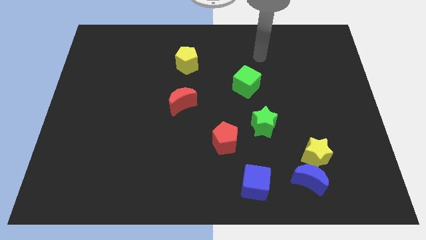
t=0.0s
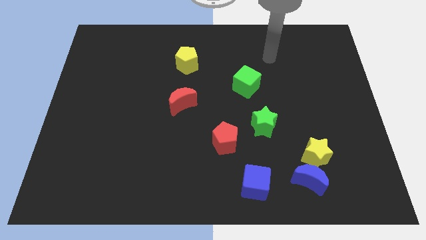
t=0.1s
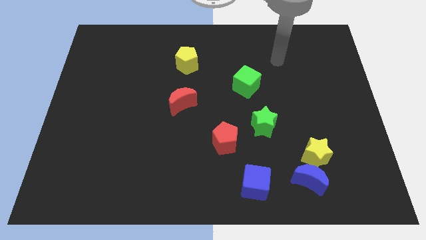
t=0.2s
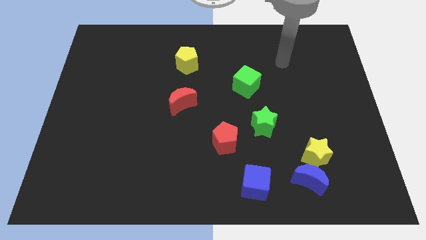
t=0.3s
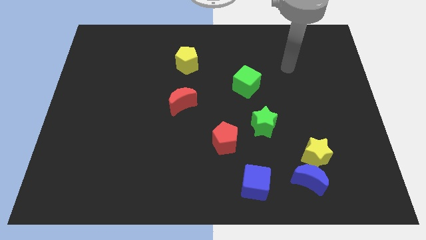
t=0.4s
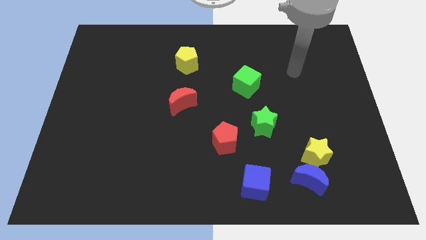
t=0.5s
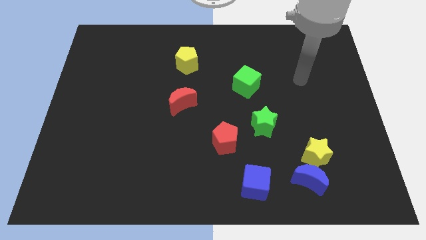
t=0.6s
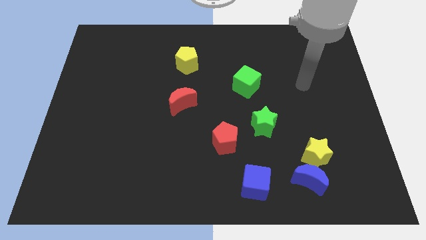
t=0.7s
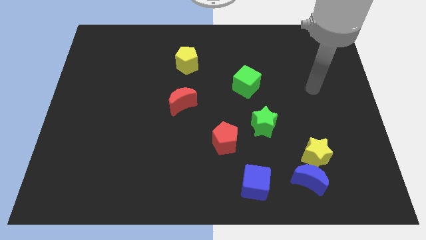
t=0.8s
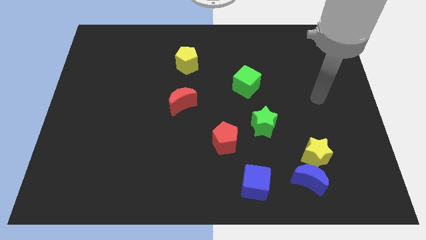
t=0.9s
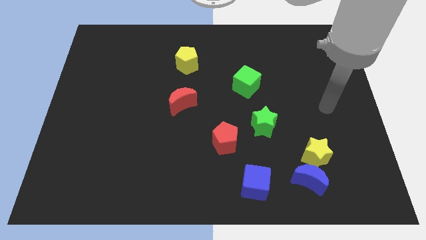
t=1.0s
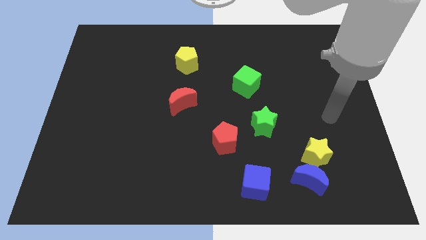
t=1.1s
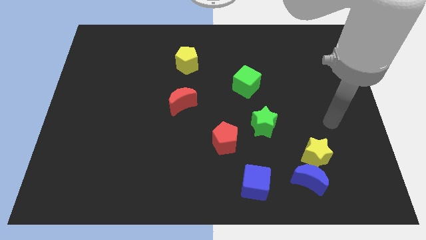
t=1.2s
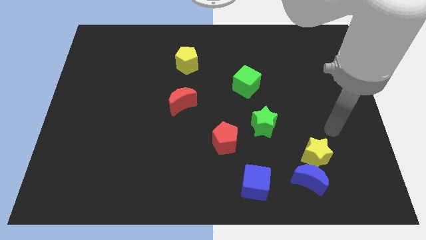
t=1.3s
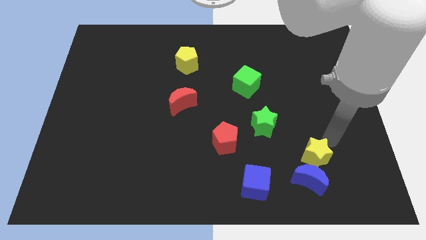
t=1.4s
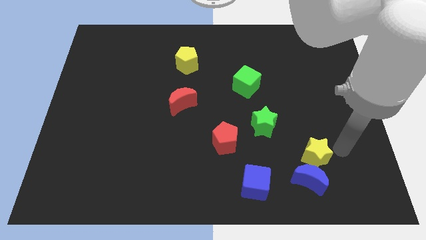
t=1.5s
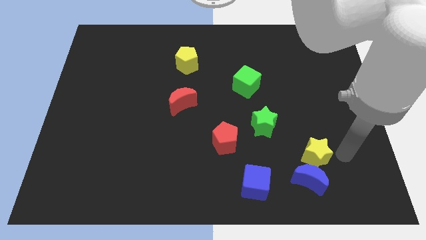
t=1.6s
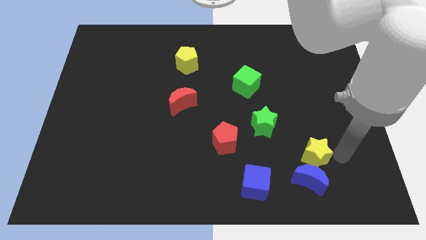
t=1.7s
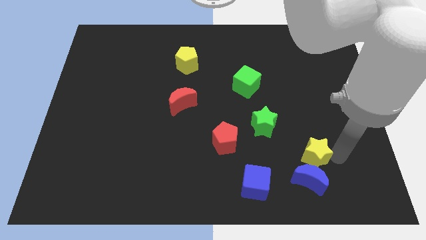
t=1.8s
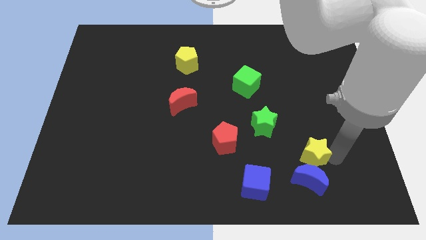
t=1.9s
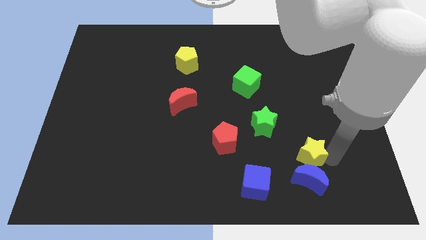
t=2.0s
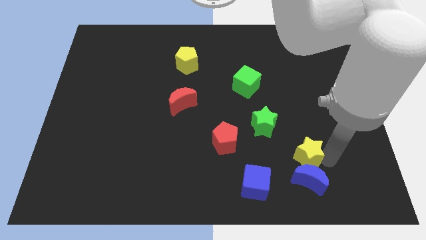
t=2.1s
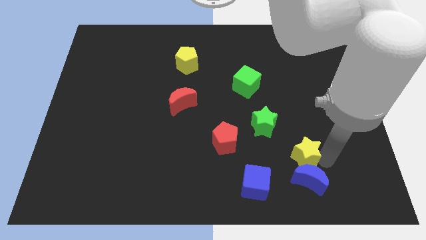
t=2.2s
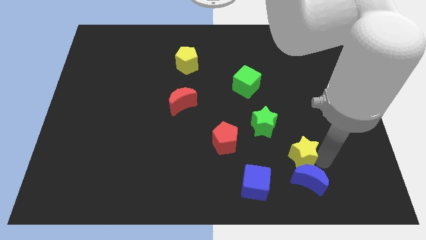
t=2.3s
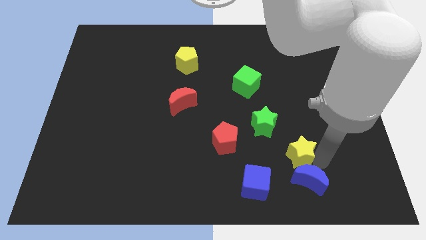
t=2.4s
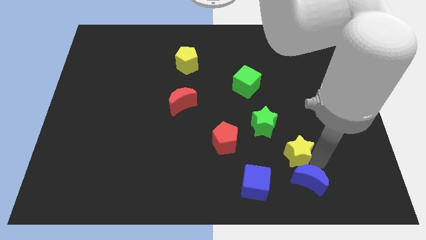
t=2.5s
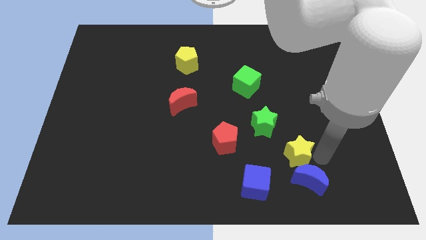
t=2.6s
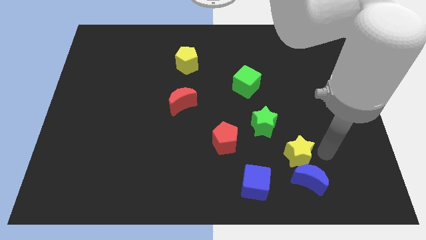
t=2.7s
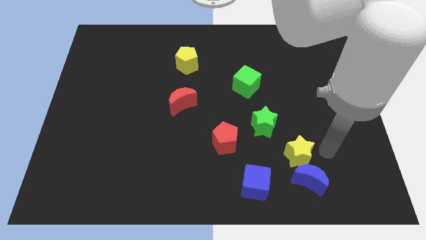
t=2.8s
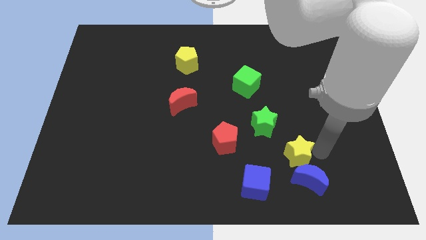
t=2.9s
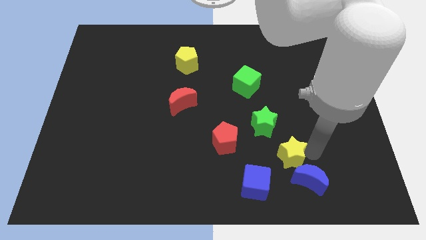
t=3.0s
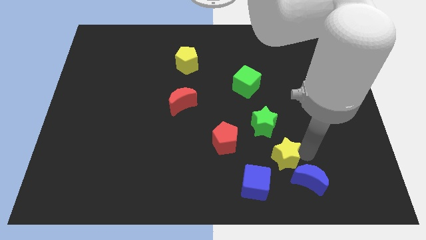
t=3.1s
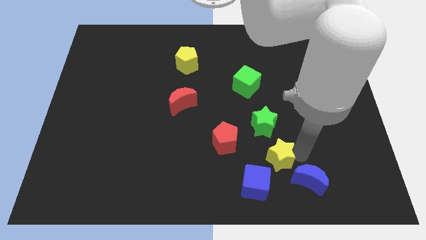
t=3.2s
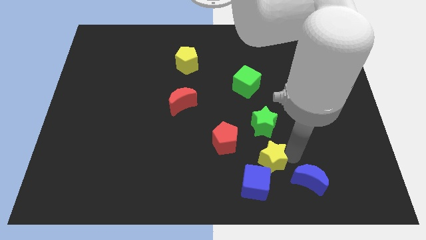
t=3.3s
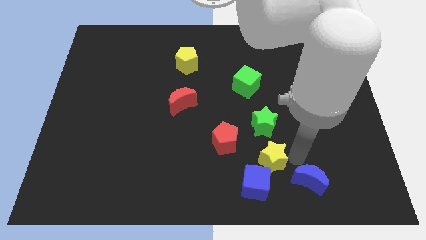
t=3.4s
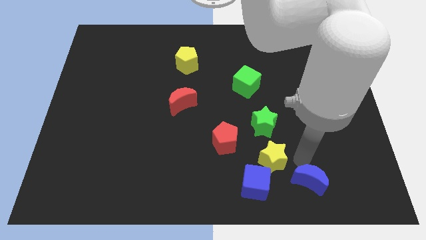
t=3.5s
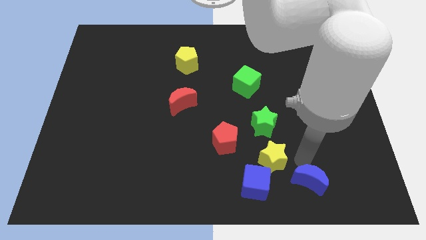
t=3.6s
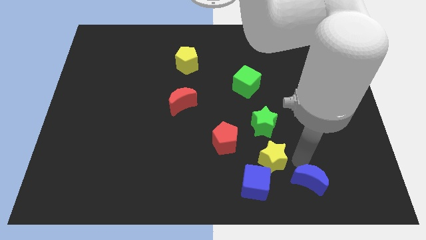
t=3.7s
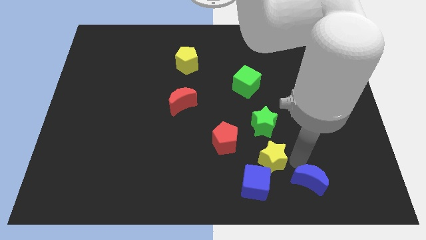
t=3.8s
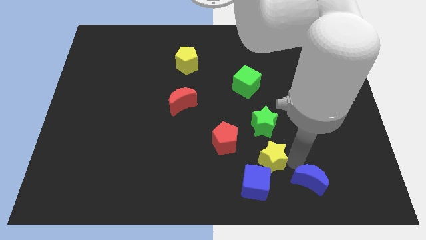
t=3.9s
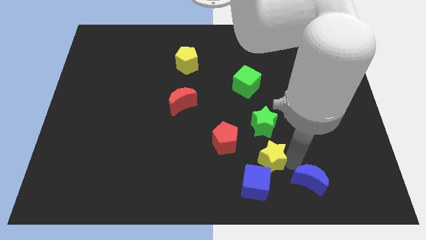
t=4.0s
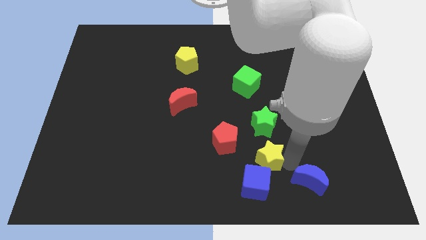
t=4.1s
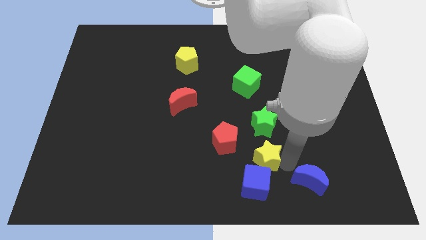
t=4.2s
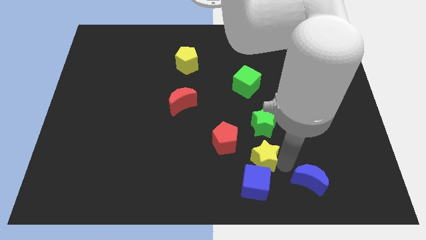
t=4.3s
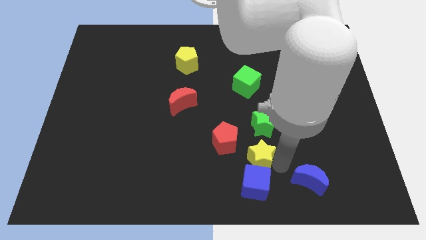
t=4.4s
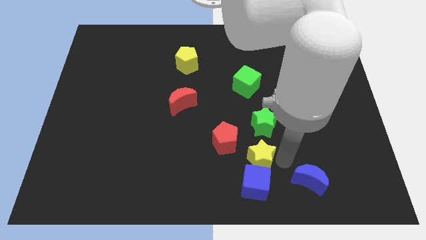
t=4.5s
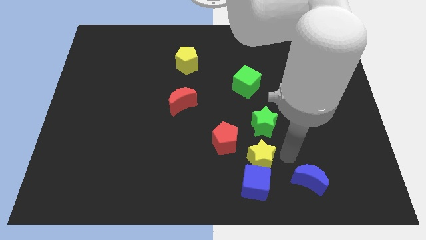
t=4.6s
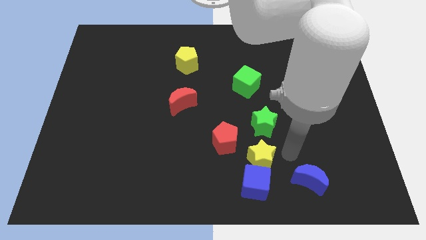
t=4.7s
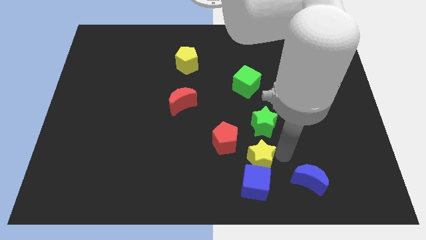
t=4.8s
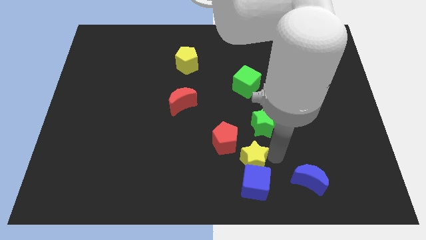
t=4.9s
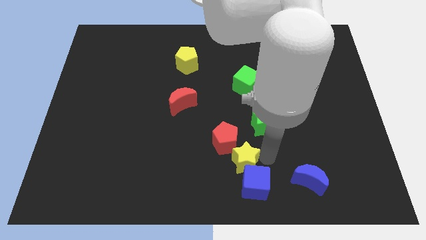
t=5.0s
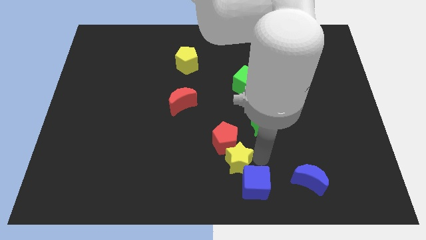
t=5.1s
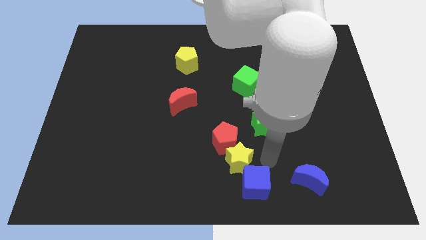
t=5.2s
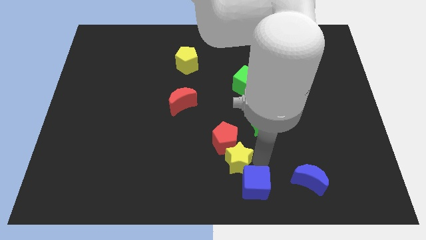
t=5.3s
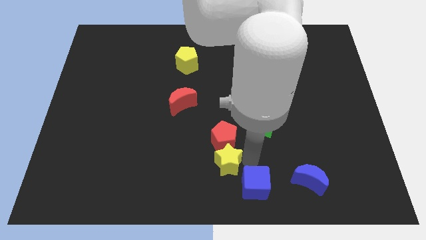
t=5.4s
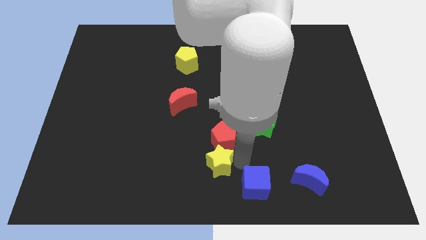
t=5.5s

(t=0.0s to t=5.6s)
push the yellow star to the left

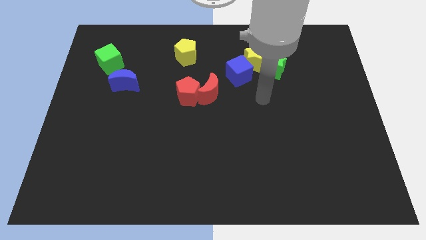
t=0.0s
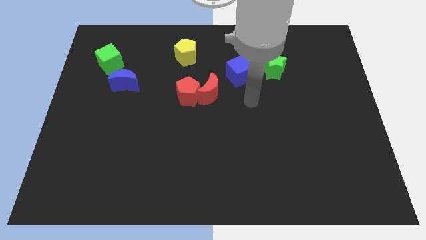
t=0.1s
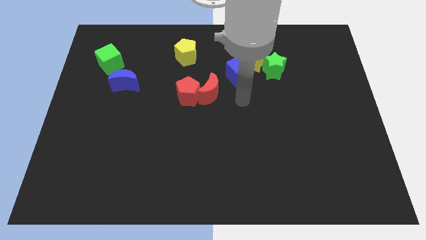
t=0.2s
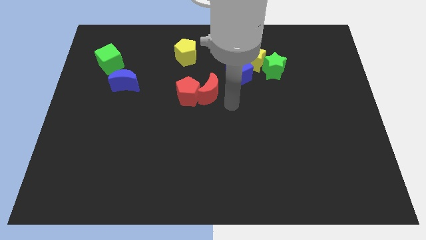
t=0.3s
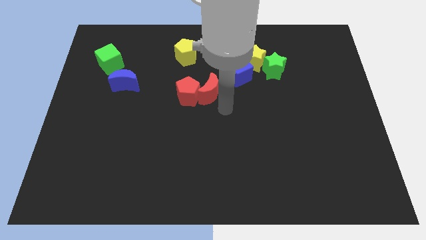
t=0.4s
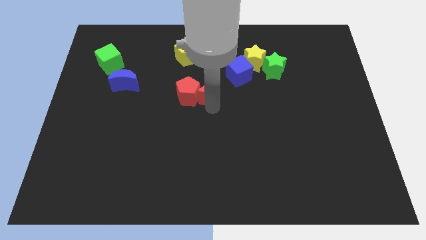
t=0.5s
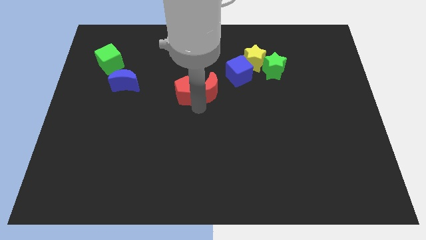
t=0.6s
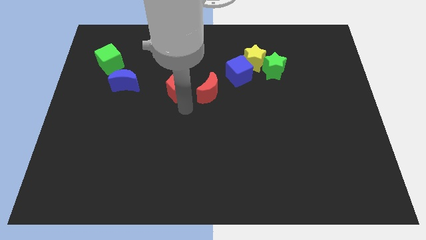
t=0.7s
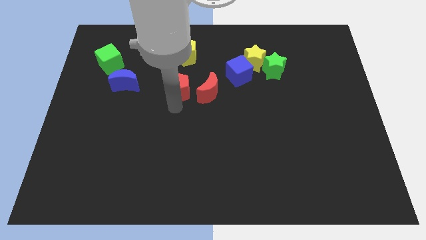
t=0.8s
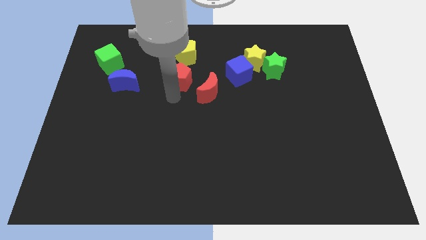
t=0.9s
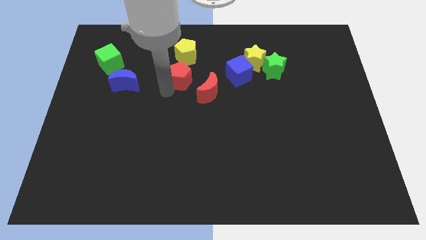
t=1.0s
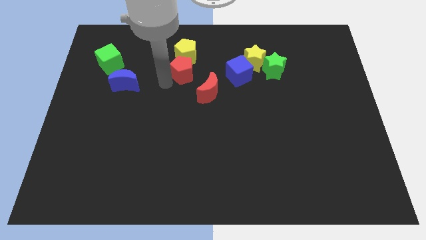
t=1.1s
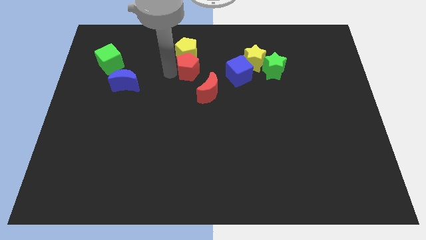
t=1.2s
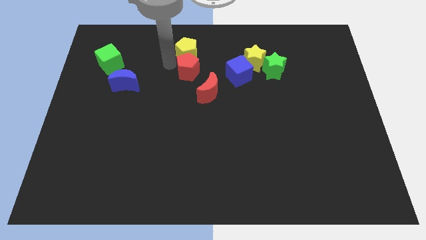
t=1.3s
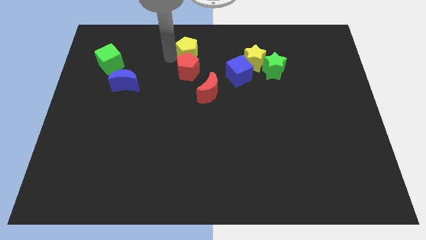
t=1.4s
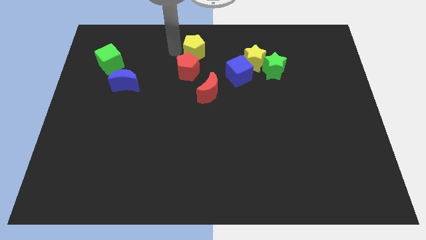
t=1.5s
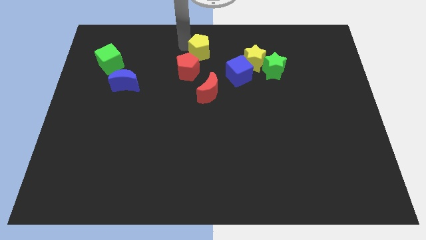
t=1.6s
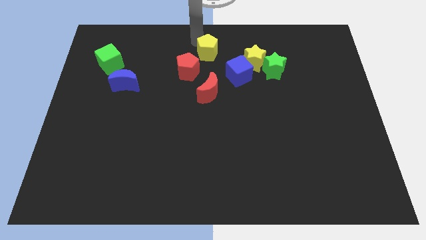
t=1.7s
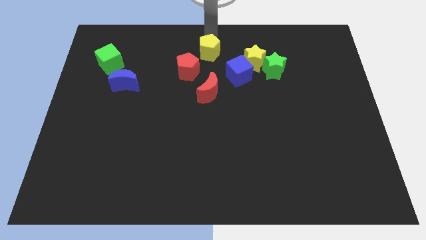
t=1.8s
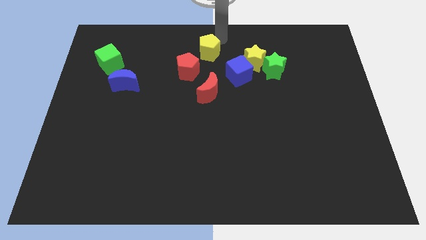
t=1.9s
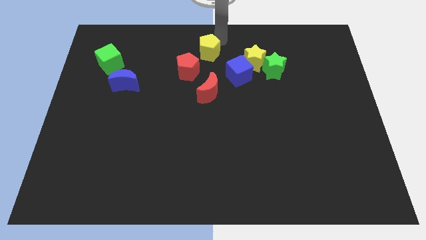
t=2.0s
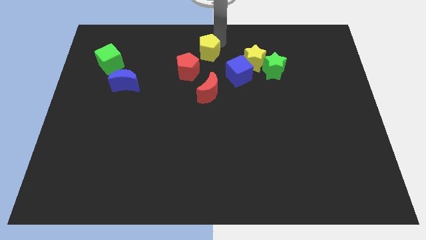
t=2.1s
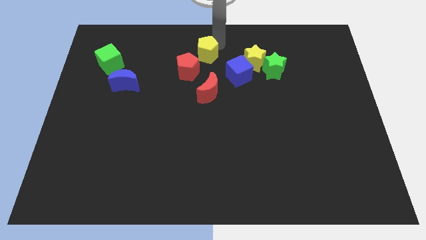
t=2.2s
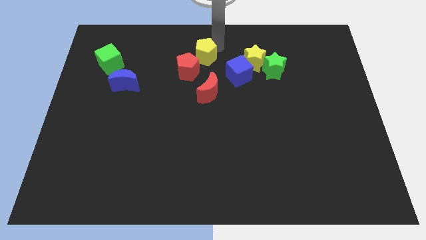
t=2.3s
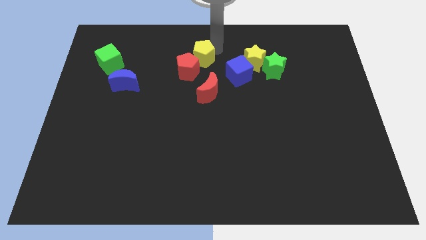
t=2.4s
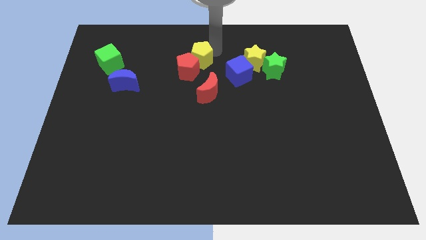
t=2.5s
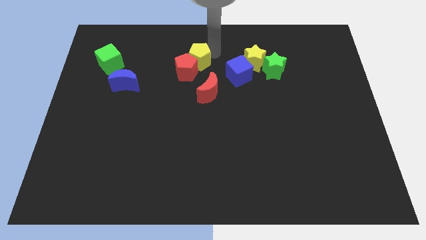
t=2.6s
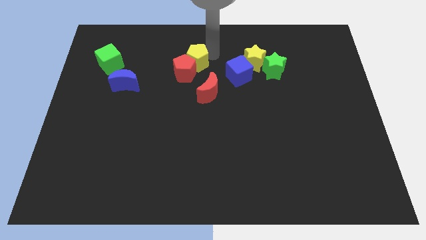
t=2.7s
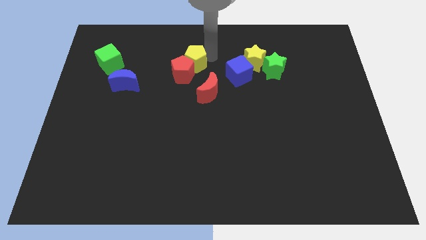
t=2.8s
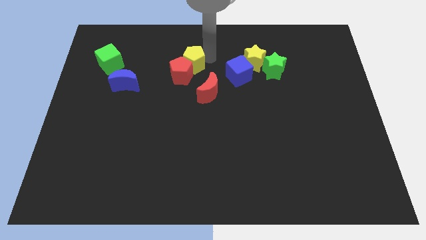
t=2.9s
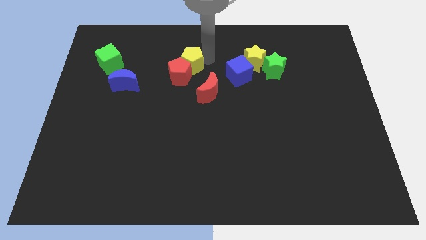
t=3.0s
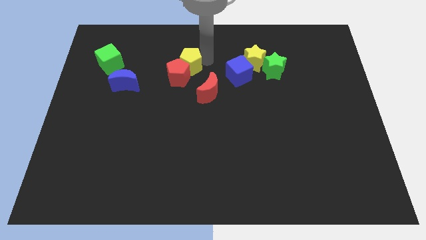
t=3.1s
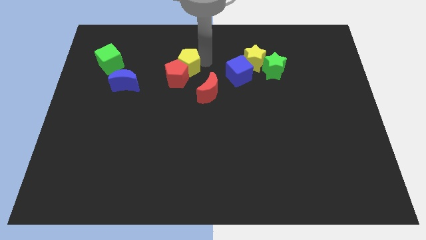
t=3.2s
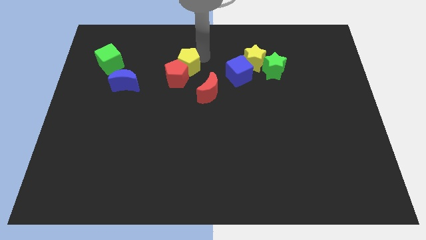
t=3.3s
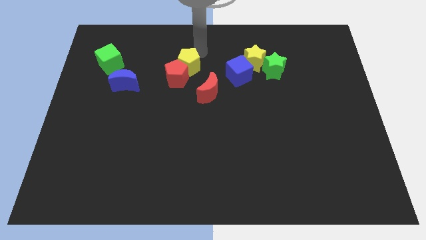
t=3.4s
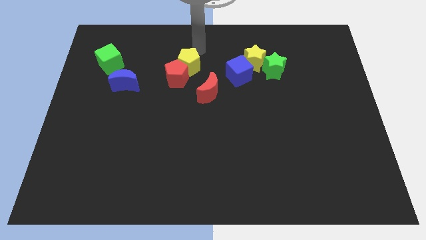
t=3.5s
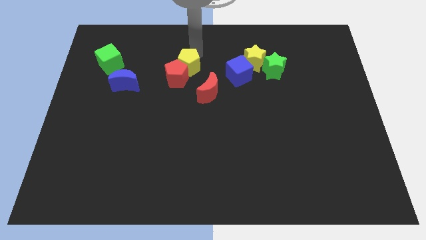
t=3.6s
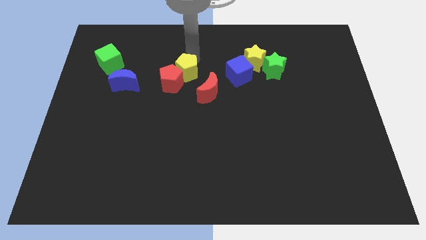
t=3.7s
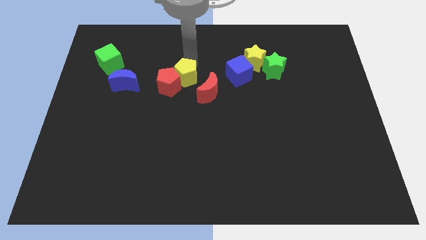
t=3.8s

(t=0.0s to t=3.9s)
push the yellow pentagon a little down
